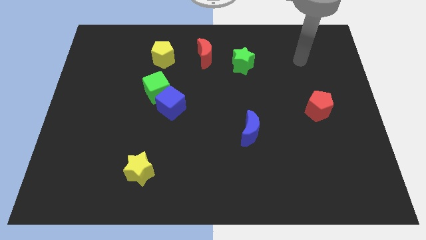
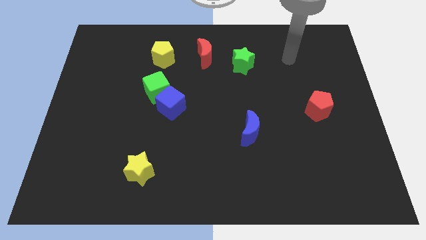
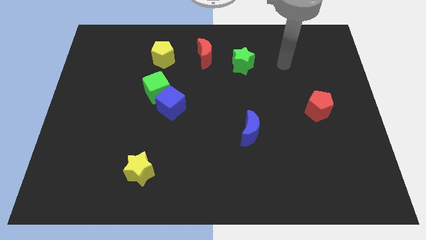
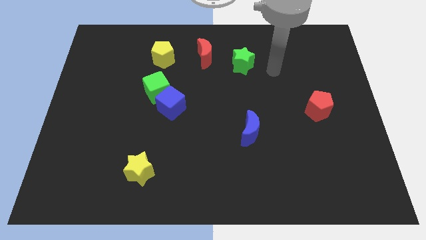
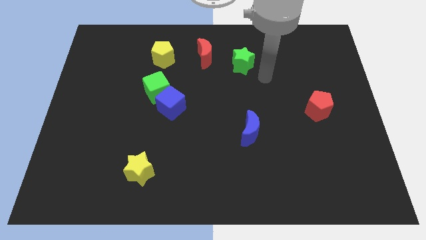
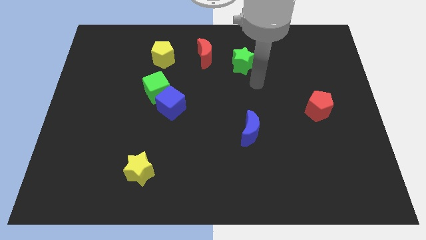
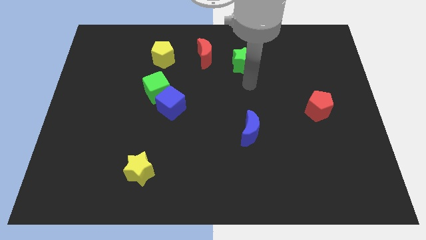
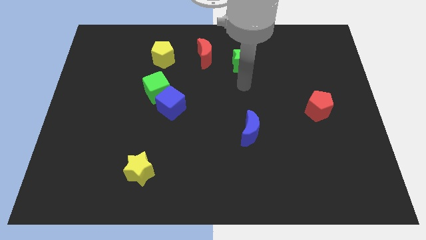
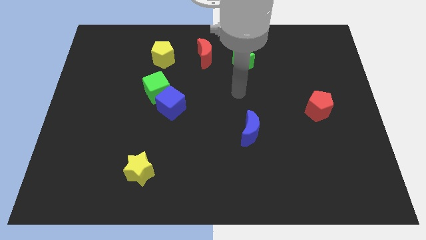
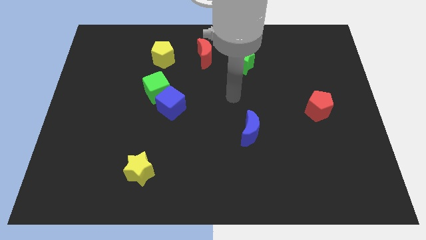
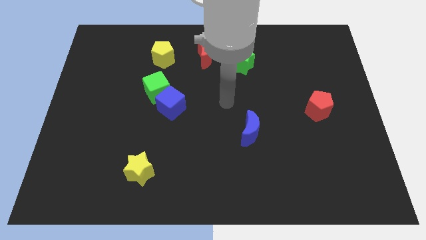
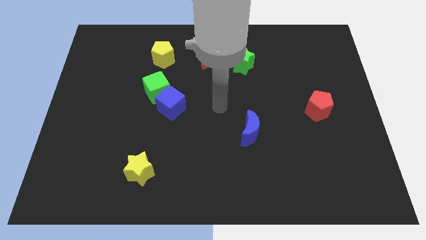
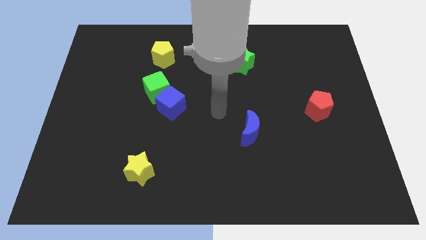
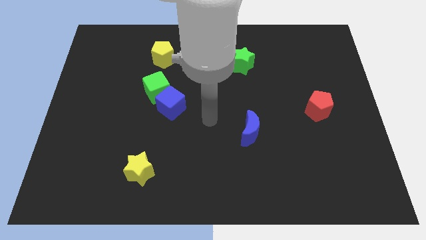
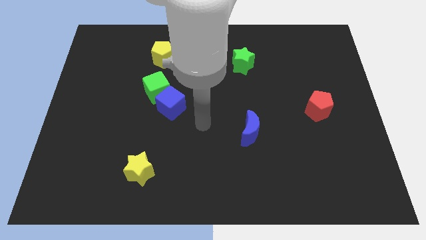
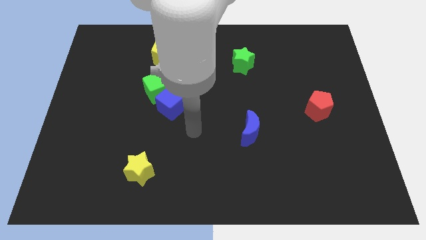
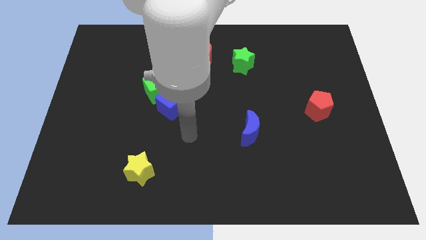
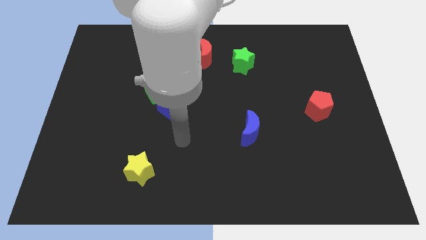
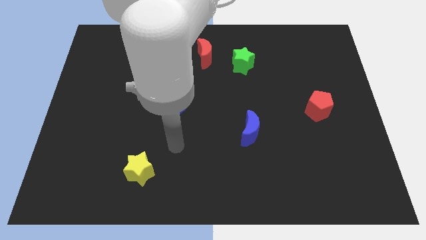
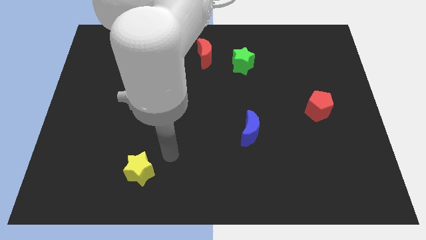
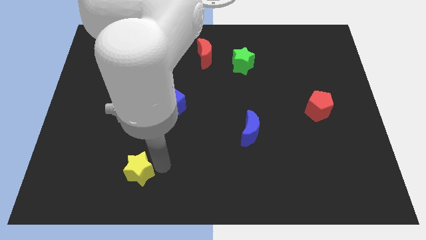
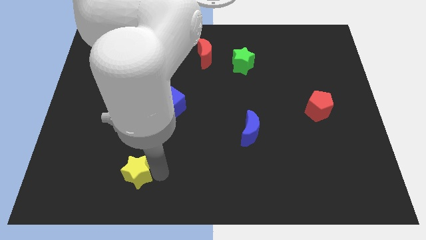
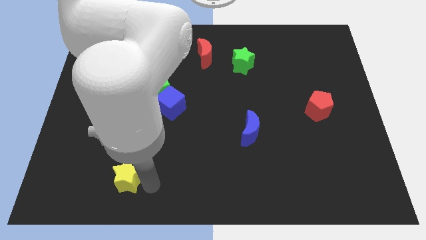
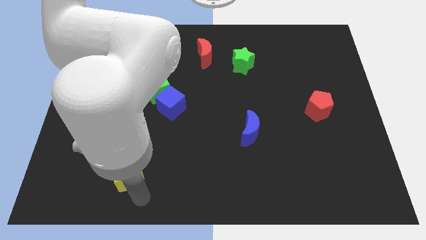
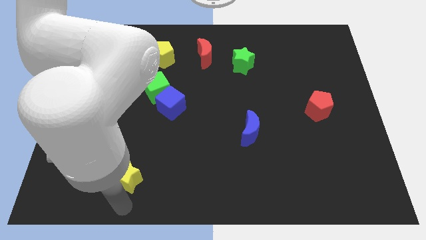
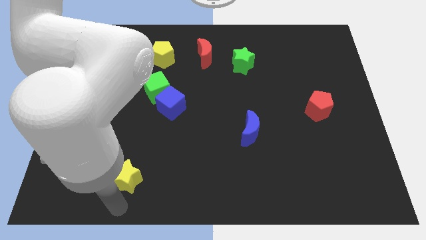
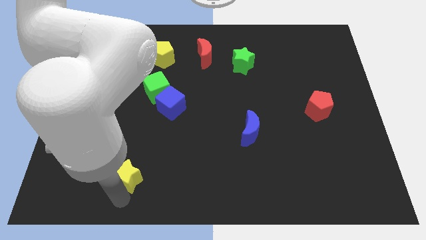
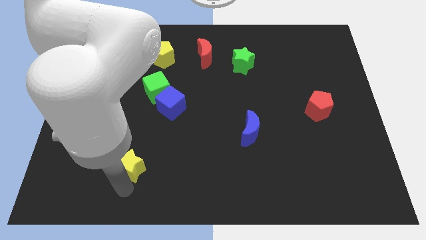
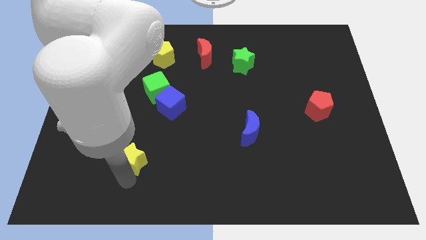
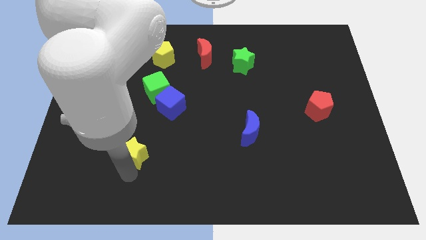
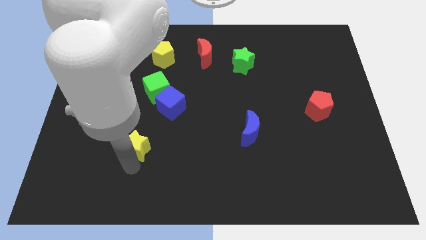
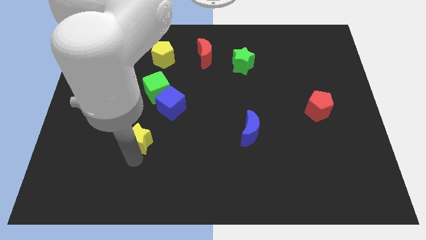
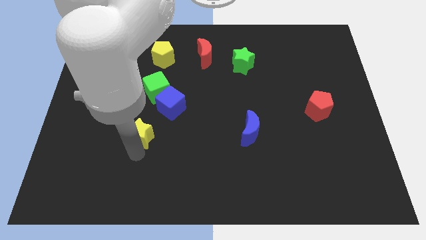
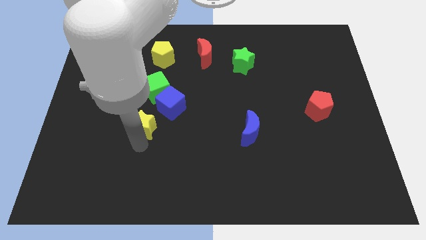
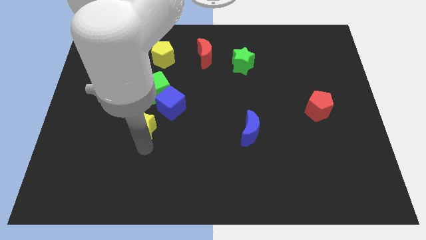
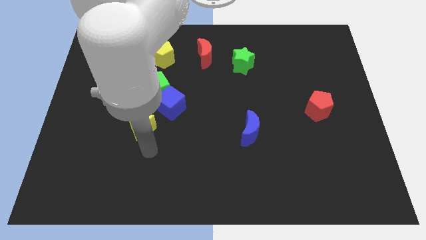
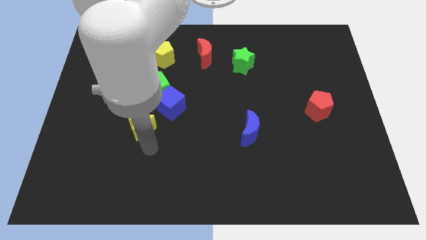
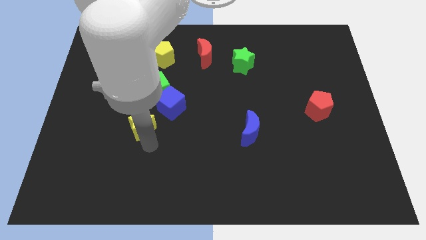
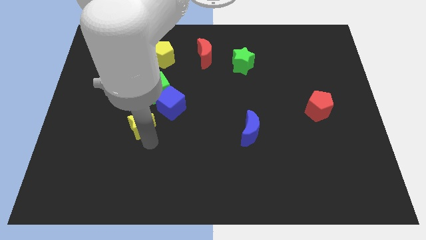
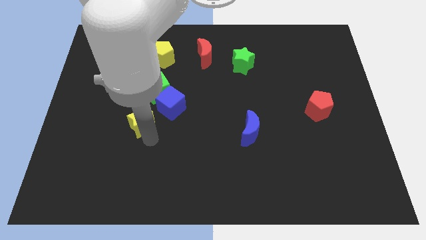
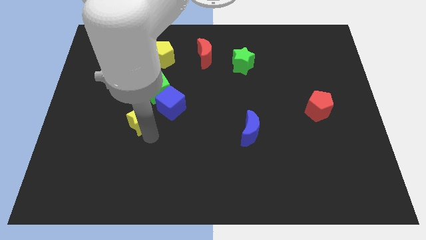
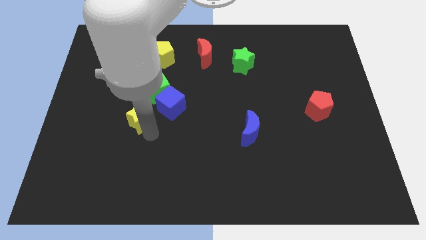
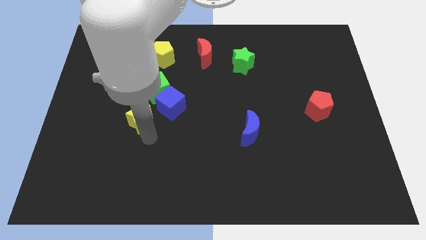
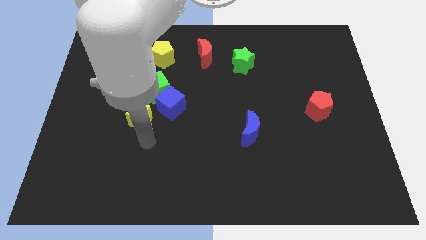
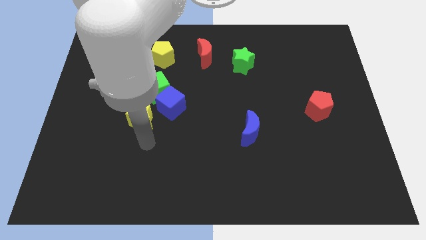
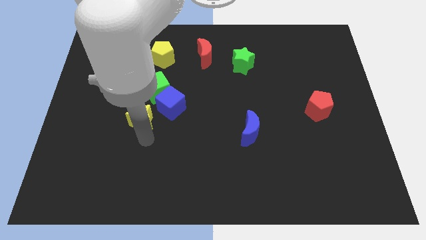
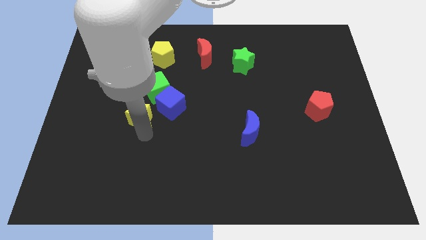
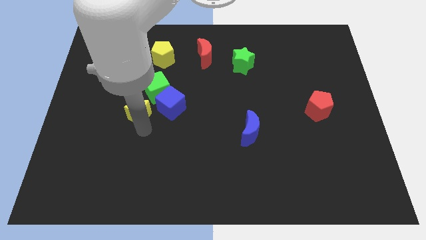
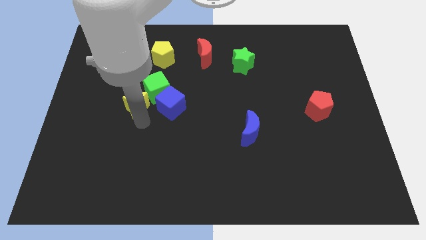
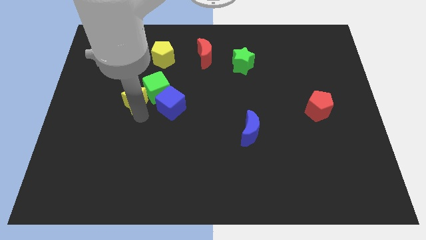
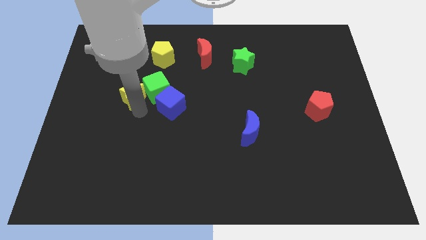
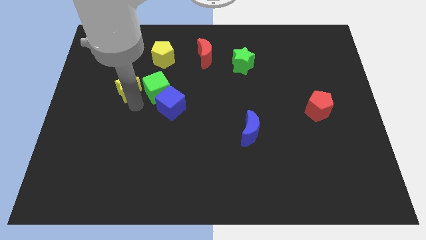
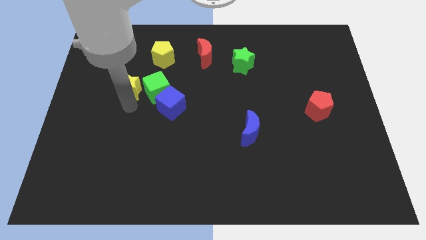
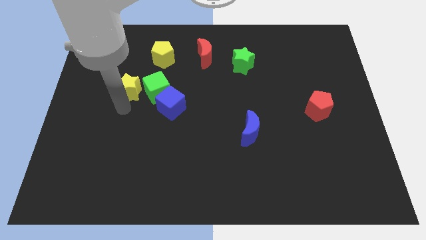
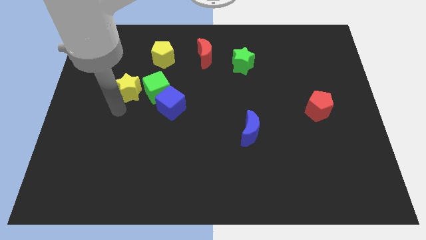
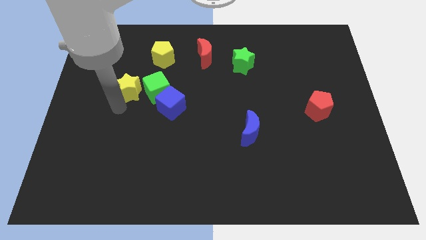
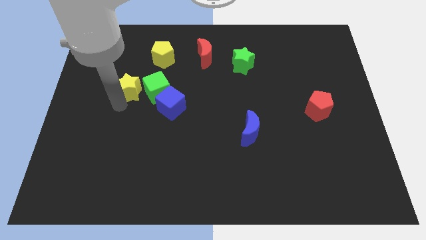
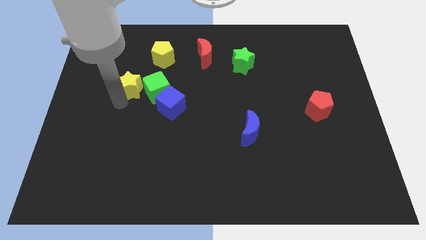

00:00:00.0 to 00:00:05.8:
slide the yellow star diagonally down and to the left of the yellow pentagon
